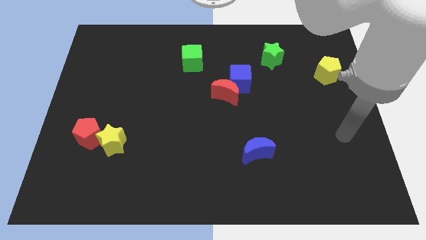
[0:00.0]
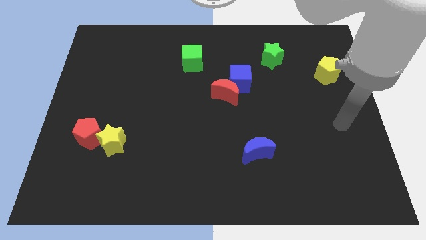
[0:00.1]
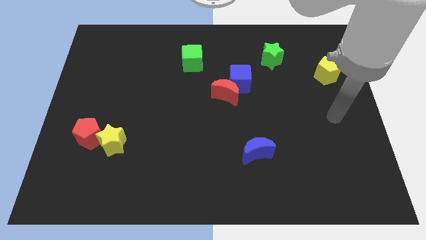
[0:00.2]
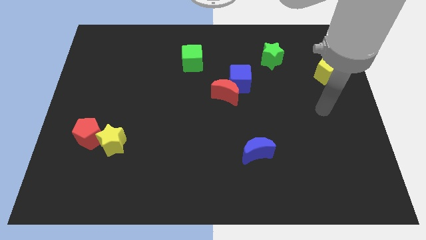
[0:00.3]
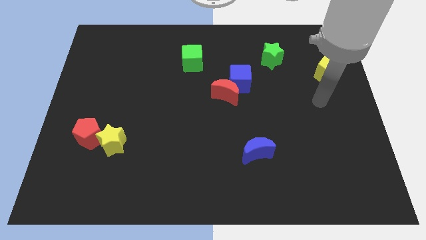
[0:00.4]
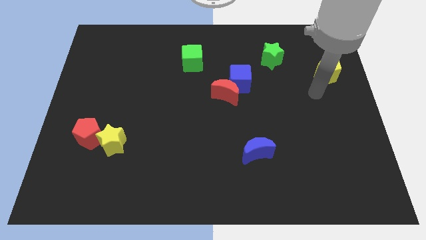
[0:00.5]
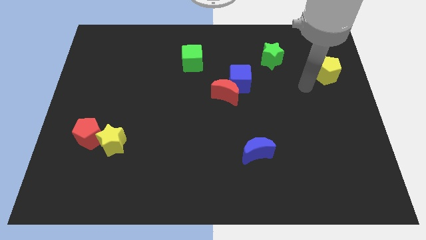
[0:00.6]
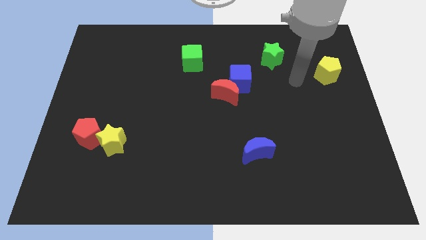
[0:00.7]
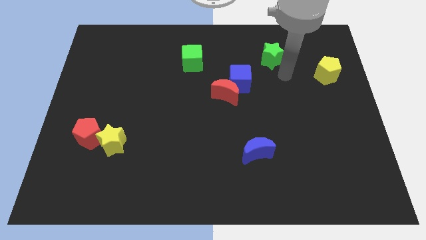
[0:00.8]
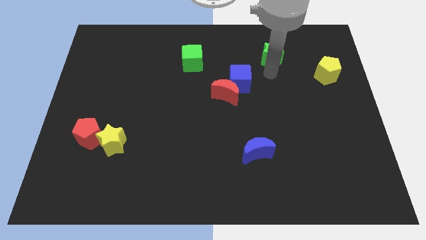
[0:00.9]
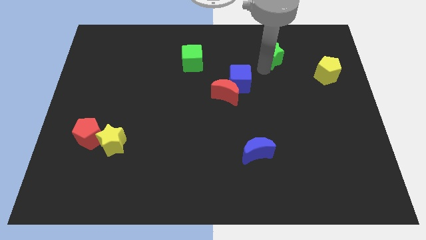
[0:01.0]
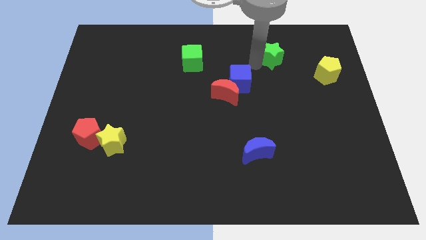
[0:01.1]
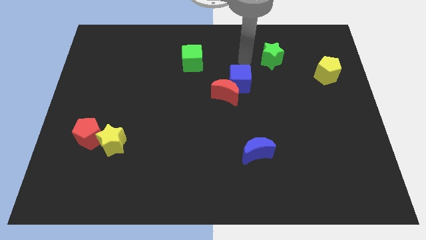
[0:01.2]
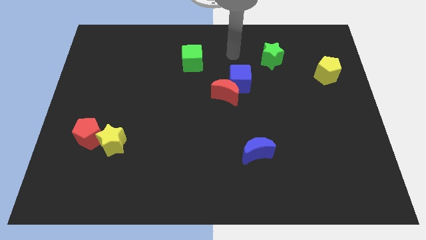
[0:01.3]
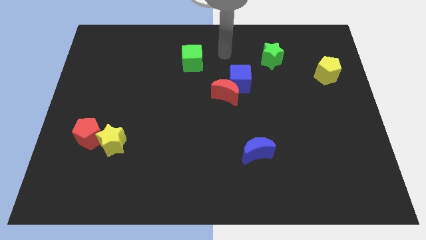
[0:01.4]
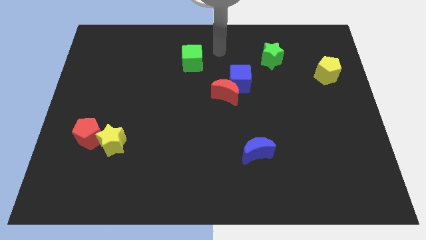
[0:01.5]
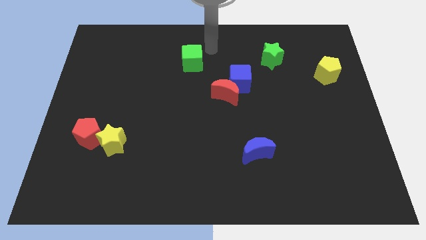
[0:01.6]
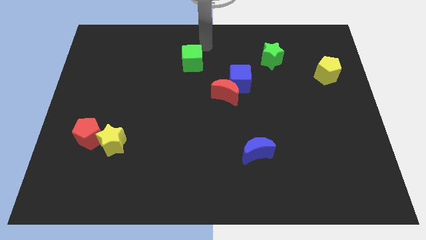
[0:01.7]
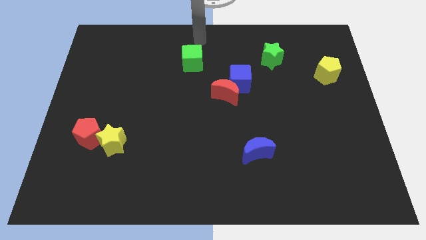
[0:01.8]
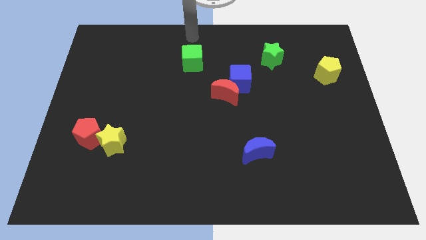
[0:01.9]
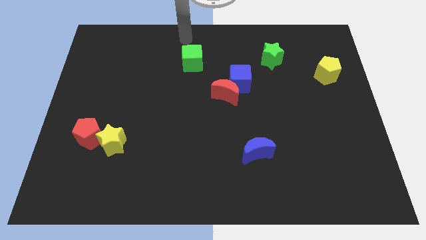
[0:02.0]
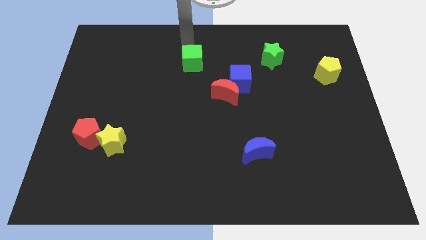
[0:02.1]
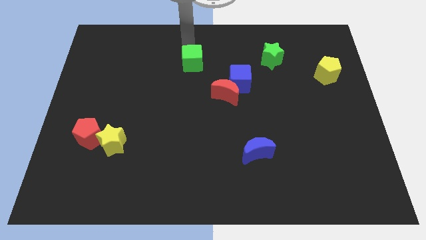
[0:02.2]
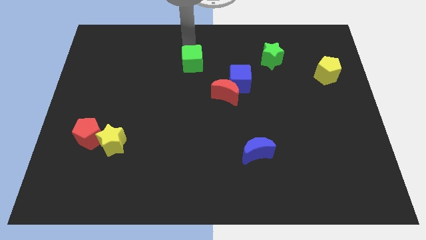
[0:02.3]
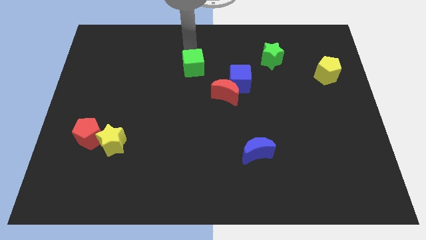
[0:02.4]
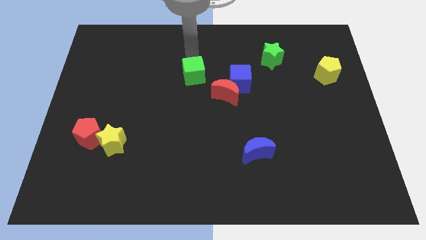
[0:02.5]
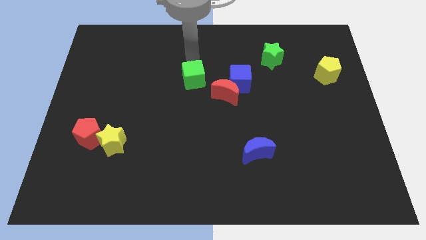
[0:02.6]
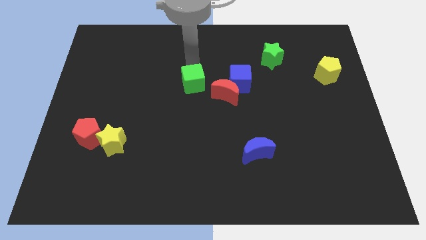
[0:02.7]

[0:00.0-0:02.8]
move the green cube a bit down

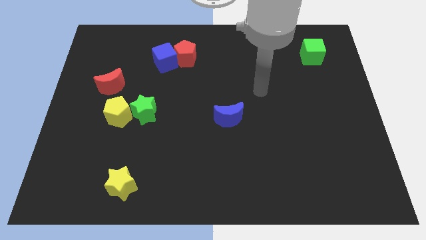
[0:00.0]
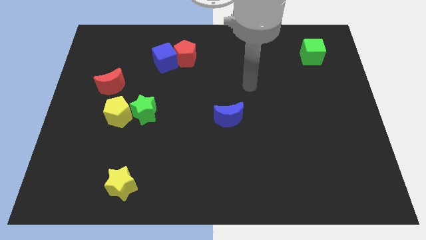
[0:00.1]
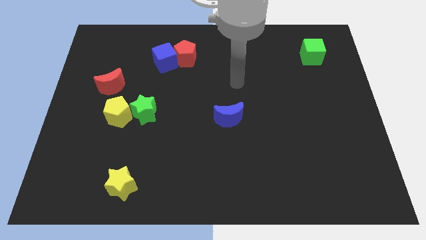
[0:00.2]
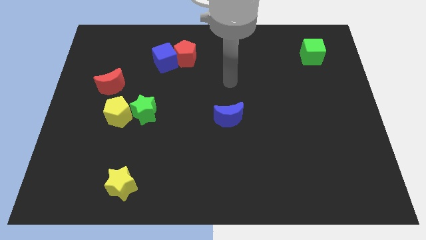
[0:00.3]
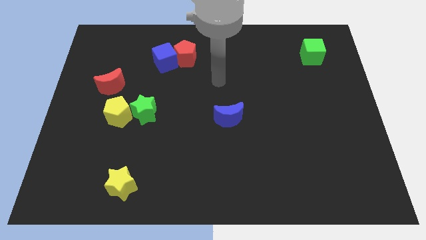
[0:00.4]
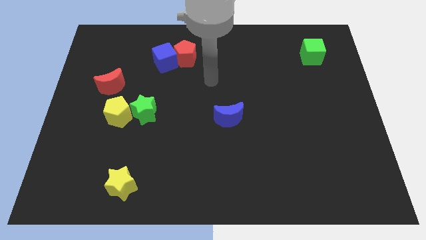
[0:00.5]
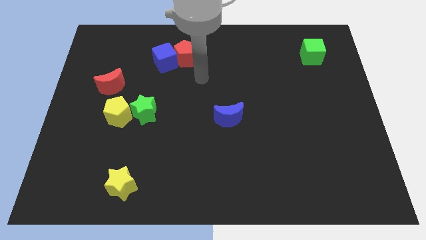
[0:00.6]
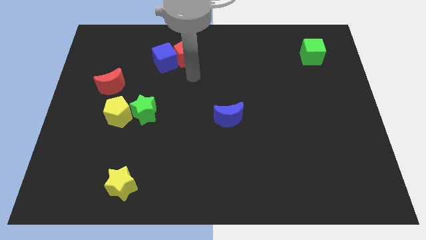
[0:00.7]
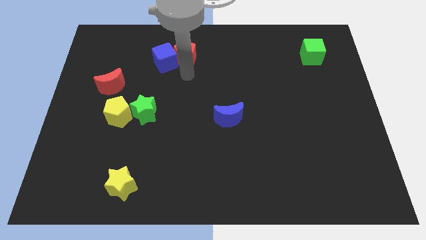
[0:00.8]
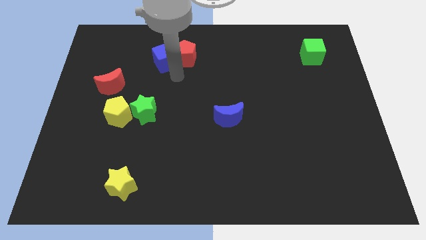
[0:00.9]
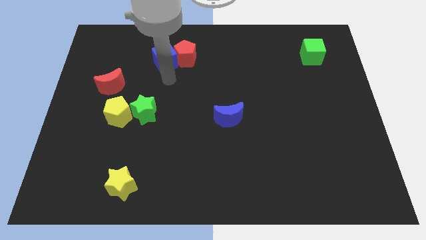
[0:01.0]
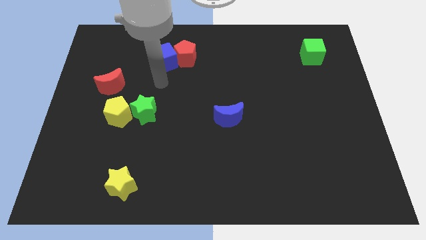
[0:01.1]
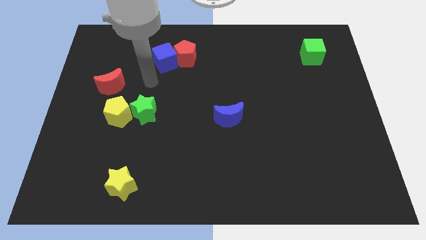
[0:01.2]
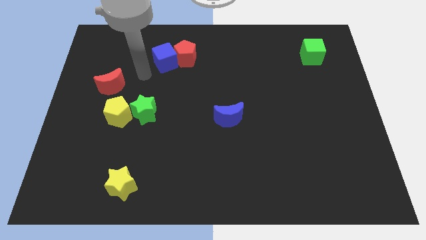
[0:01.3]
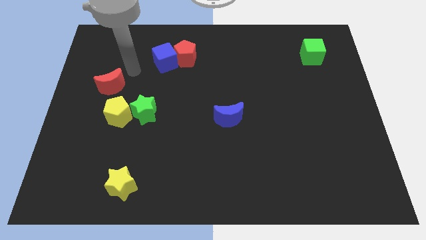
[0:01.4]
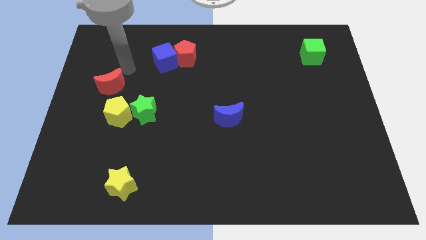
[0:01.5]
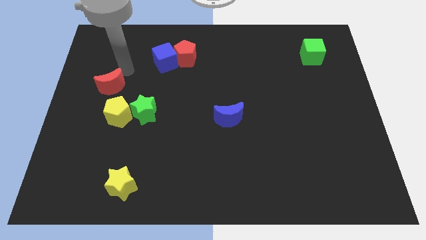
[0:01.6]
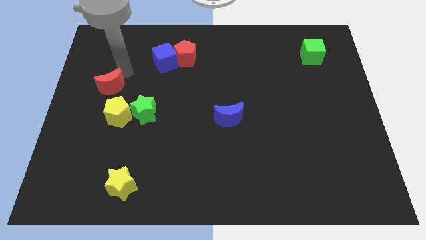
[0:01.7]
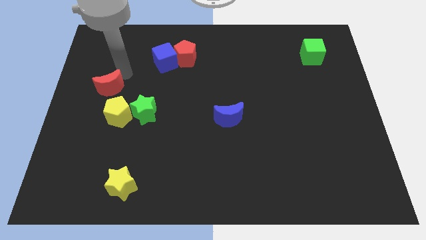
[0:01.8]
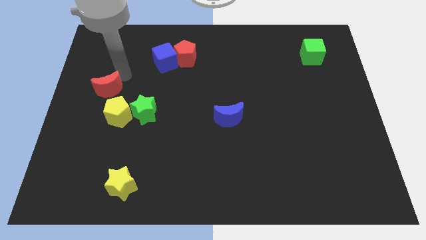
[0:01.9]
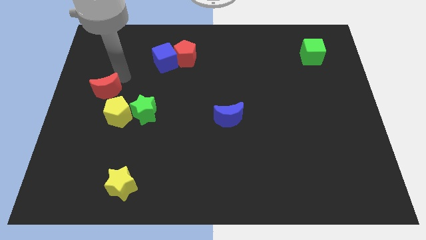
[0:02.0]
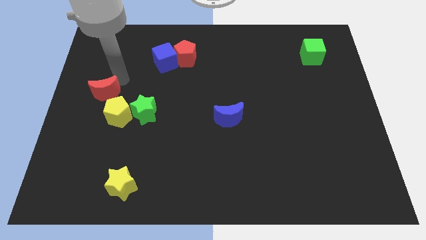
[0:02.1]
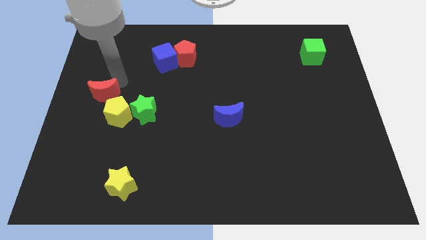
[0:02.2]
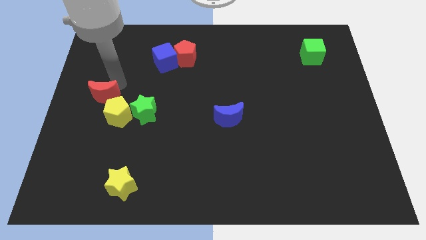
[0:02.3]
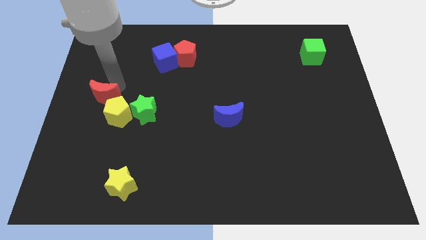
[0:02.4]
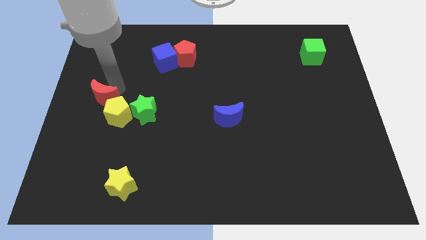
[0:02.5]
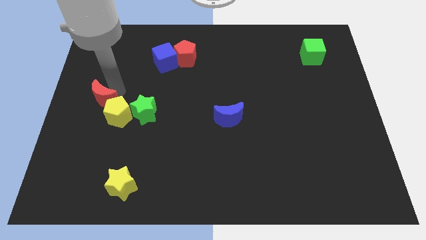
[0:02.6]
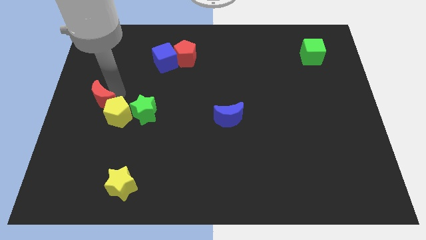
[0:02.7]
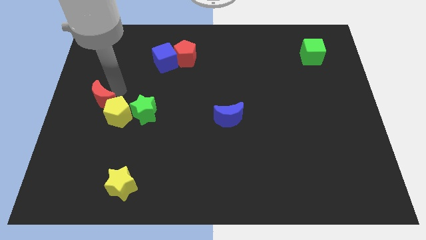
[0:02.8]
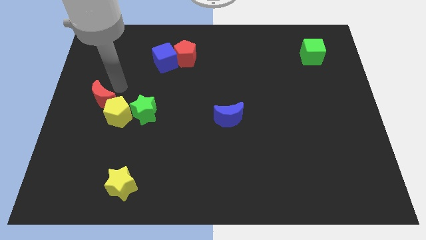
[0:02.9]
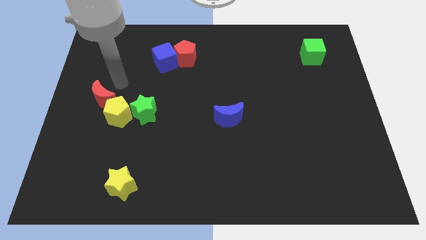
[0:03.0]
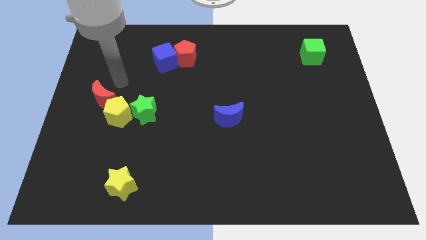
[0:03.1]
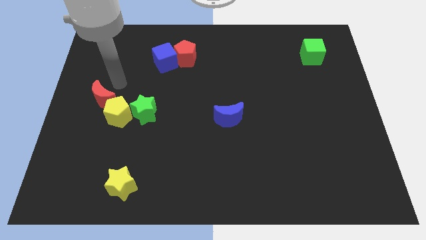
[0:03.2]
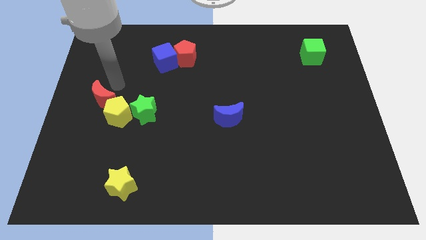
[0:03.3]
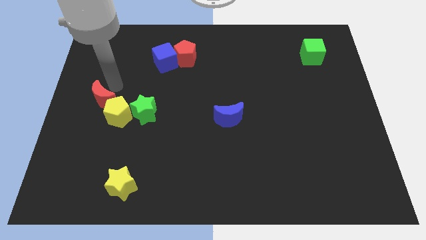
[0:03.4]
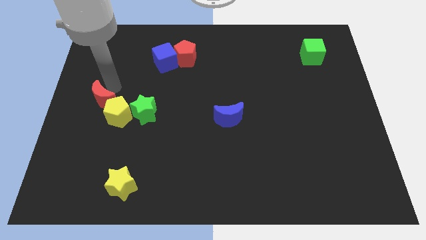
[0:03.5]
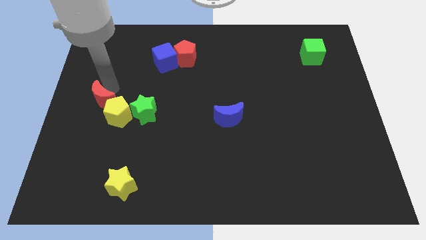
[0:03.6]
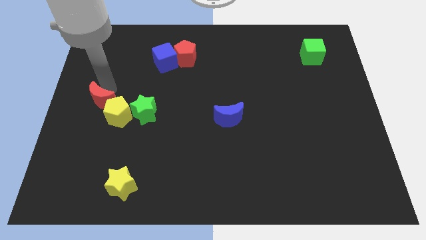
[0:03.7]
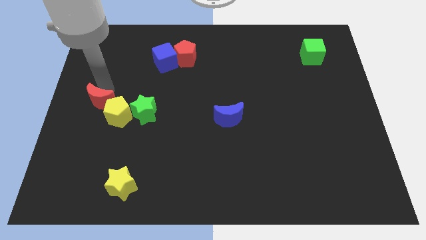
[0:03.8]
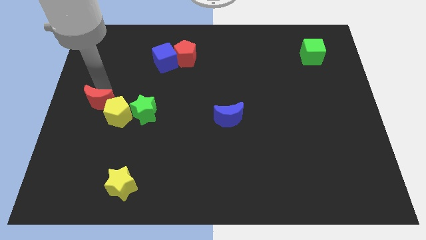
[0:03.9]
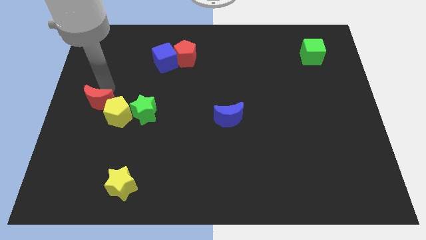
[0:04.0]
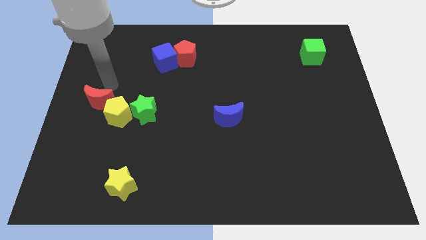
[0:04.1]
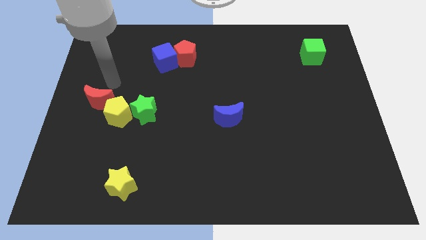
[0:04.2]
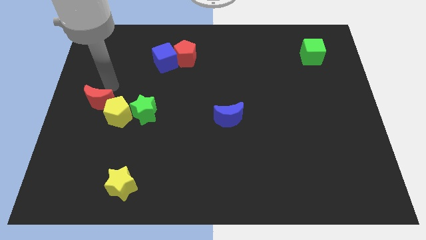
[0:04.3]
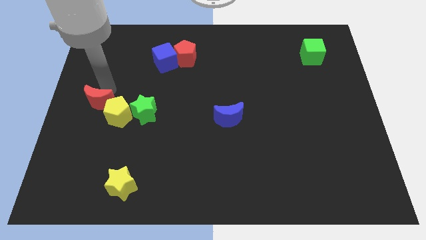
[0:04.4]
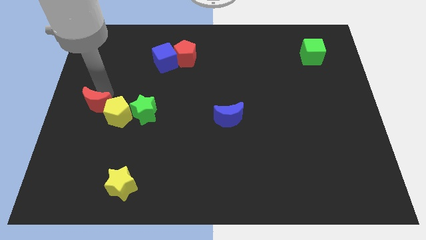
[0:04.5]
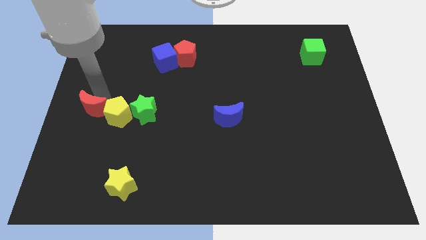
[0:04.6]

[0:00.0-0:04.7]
slightly move the red moon downwards

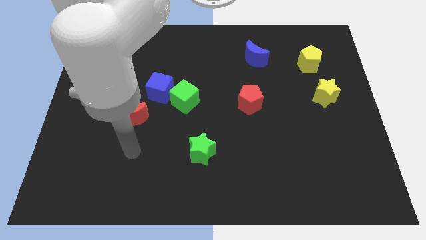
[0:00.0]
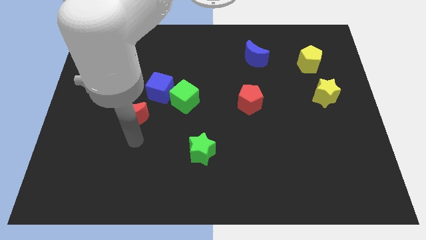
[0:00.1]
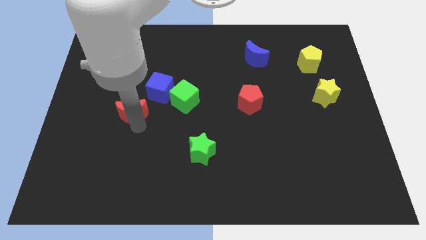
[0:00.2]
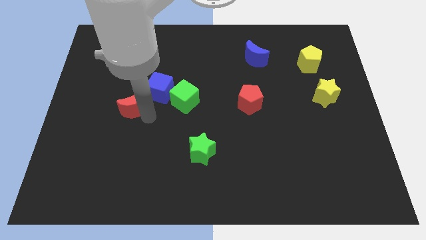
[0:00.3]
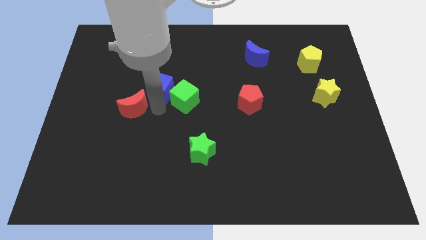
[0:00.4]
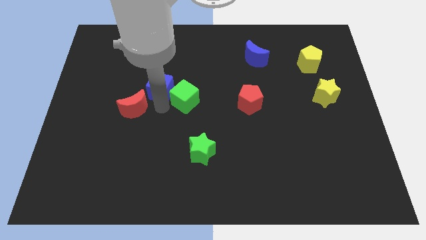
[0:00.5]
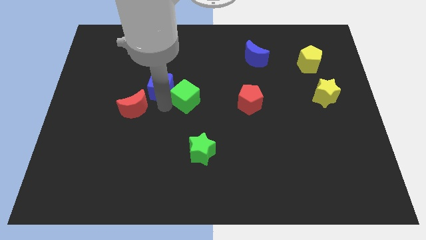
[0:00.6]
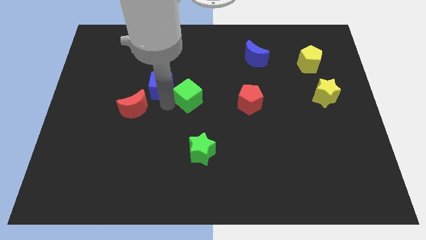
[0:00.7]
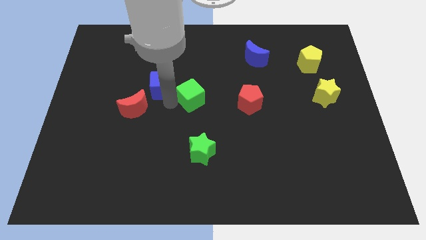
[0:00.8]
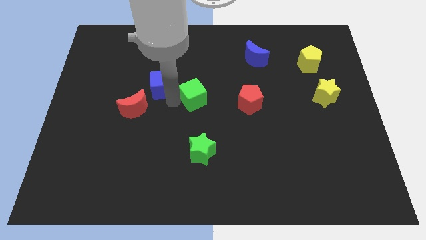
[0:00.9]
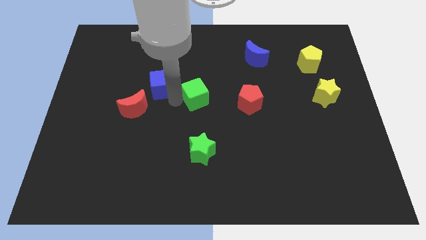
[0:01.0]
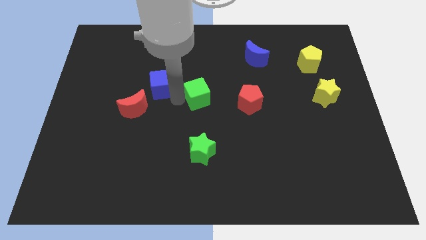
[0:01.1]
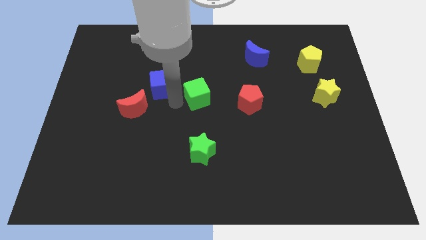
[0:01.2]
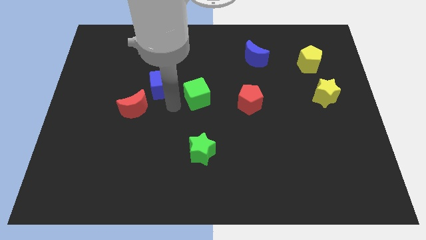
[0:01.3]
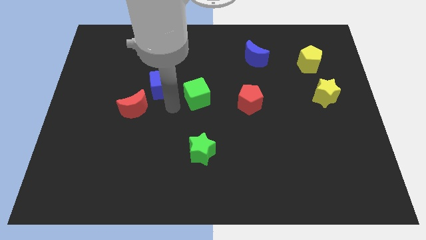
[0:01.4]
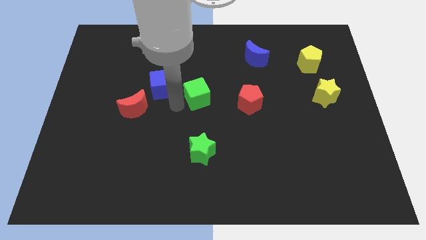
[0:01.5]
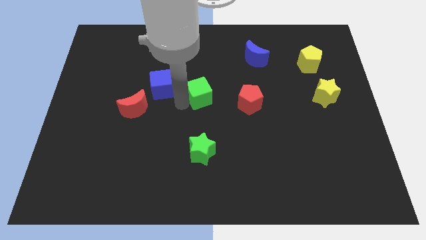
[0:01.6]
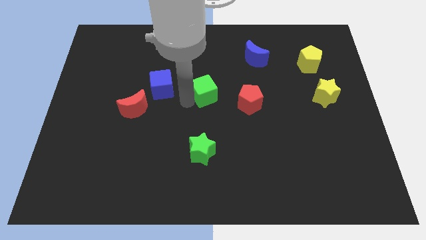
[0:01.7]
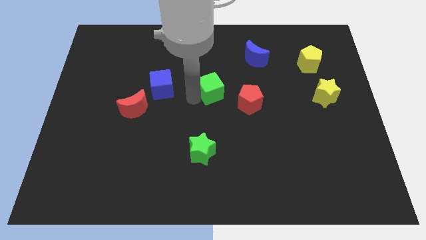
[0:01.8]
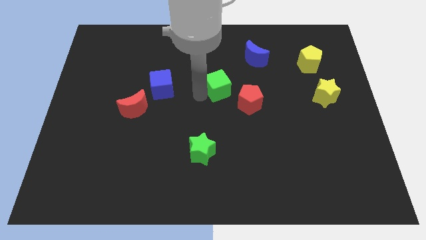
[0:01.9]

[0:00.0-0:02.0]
move the green cube a bit to the right
